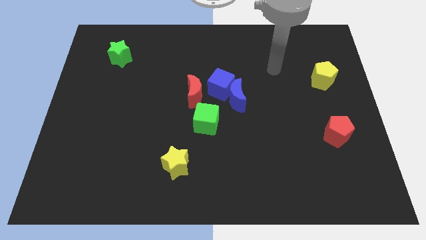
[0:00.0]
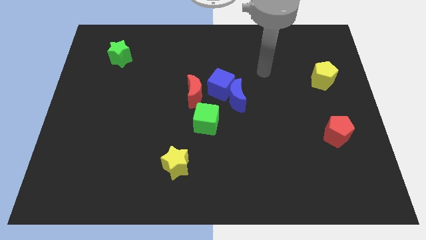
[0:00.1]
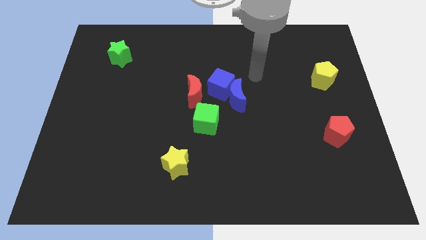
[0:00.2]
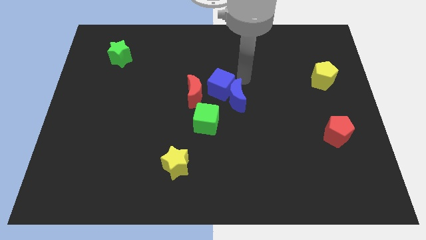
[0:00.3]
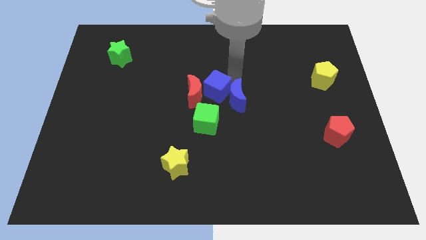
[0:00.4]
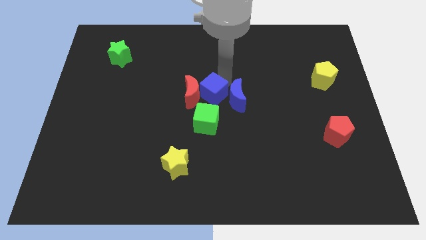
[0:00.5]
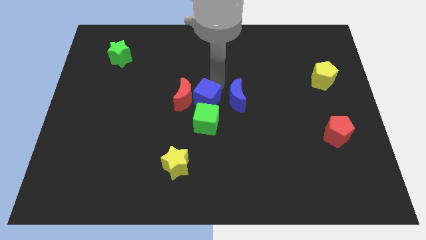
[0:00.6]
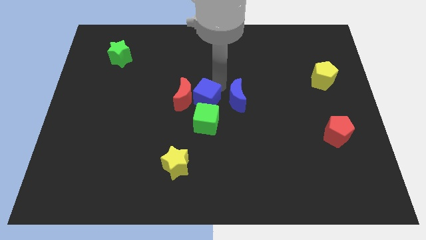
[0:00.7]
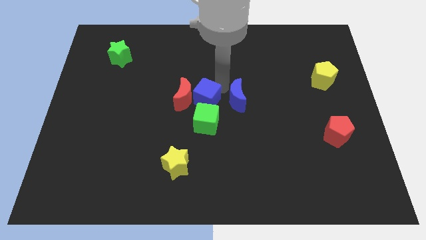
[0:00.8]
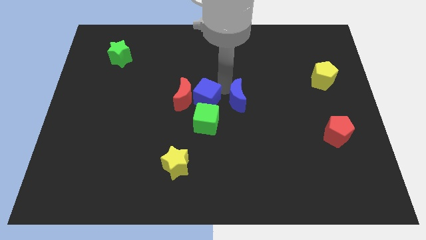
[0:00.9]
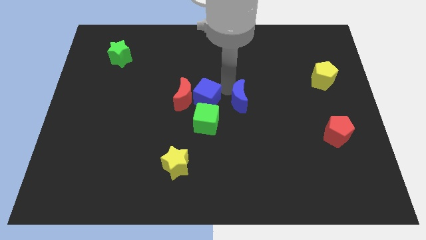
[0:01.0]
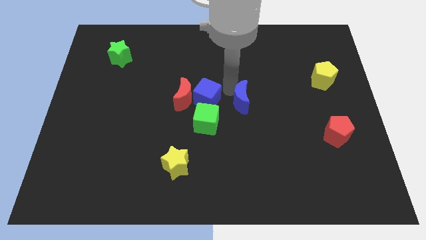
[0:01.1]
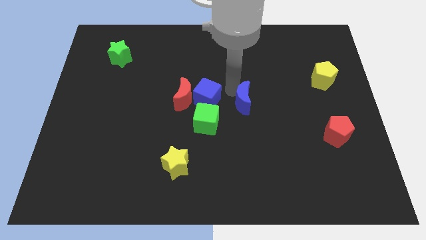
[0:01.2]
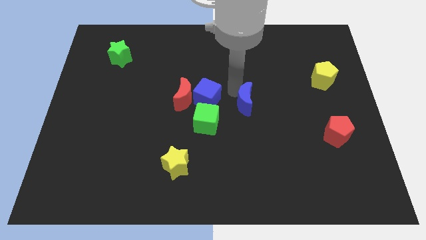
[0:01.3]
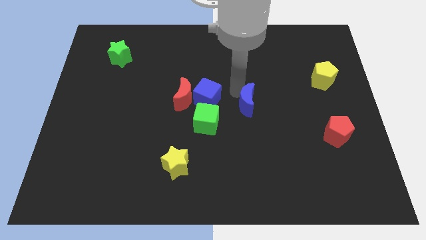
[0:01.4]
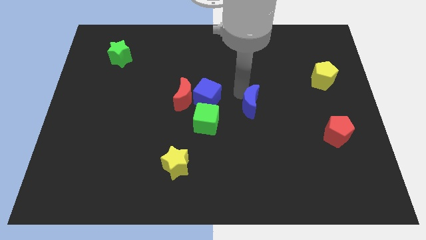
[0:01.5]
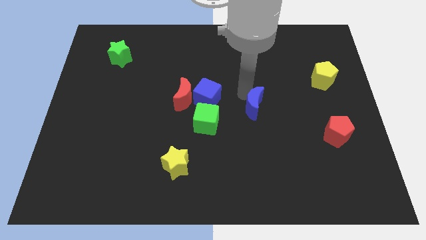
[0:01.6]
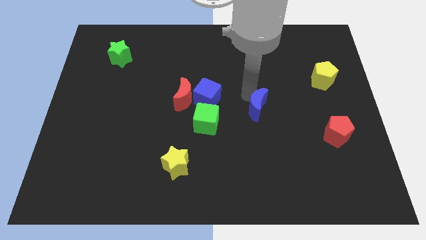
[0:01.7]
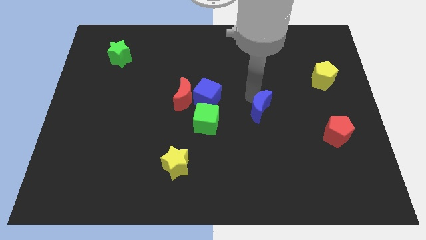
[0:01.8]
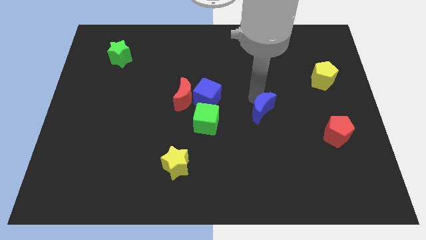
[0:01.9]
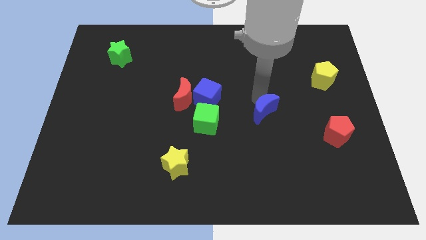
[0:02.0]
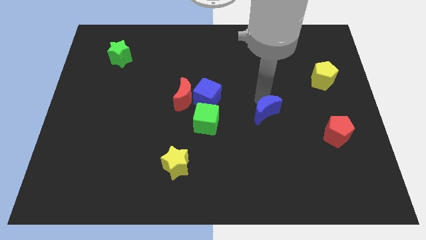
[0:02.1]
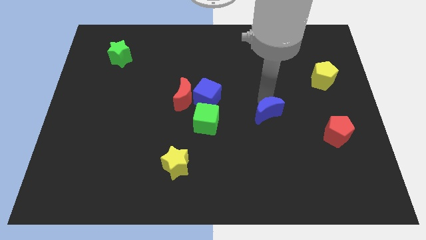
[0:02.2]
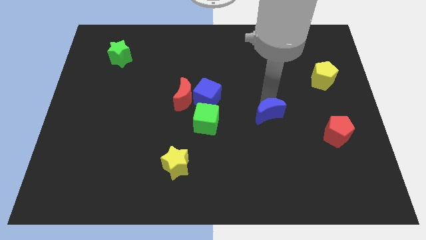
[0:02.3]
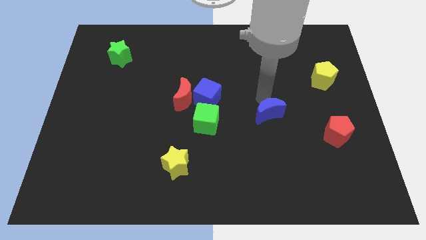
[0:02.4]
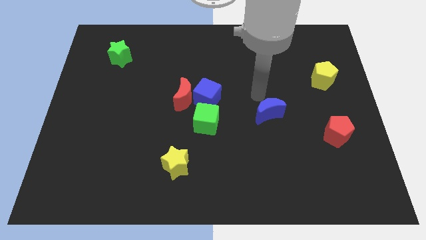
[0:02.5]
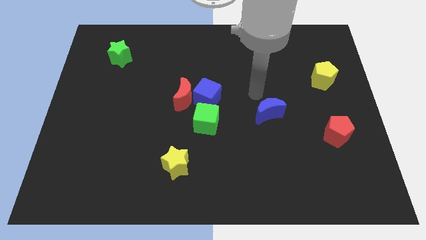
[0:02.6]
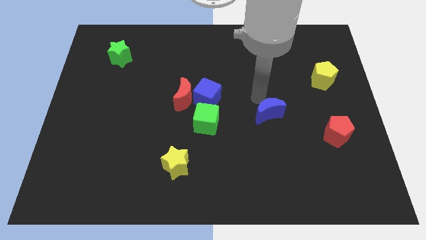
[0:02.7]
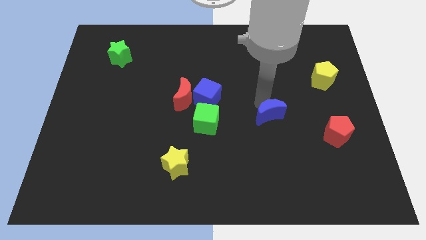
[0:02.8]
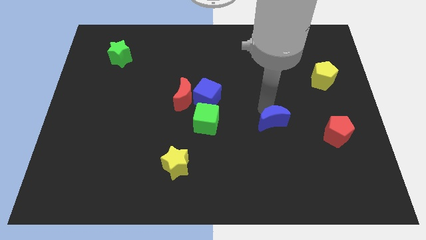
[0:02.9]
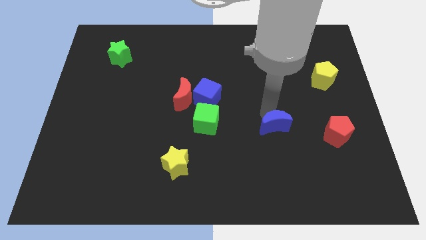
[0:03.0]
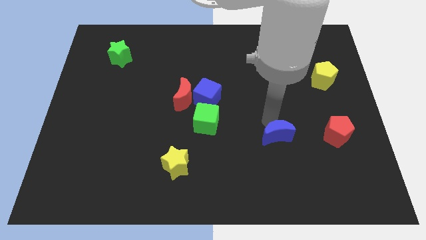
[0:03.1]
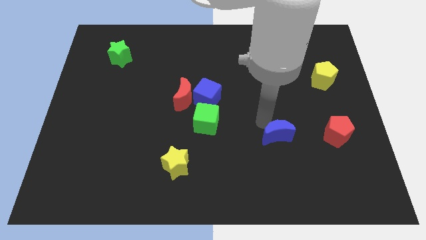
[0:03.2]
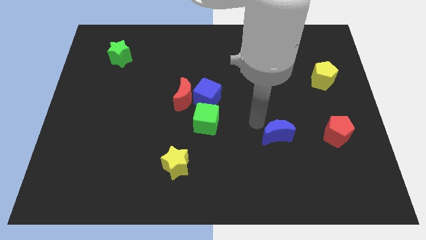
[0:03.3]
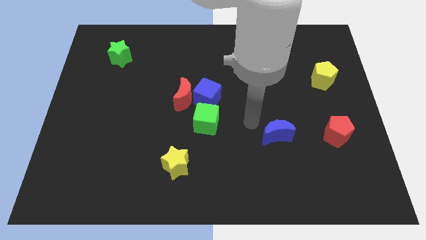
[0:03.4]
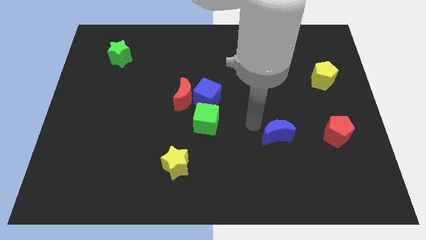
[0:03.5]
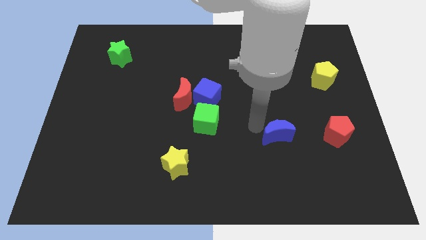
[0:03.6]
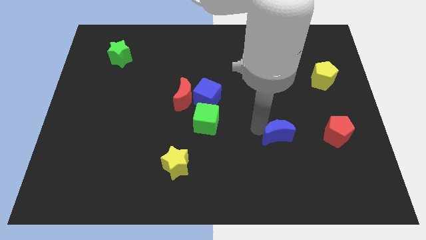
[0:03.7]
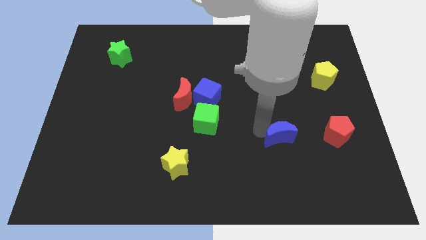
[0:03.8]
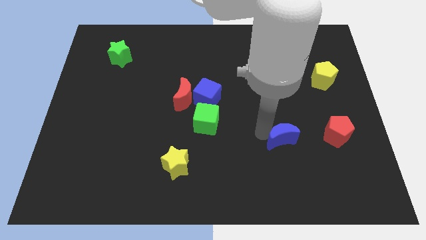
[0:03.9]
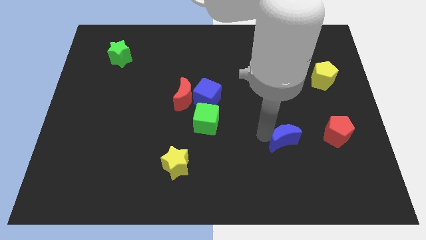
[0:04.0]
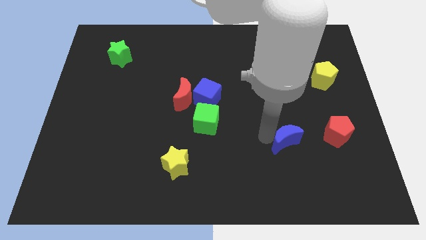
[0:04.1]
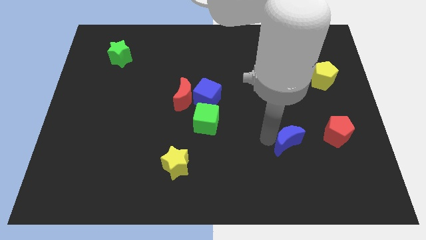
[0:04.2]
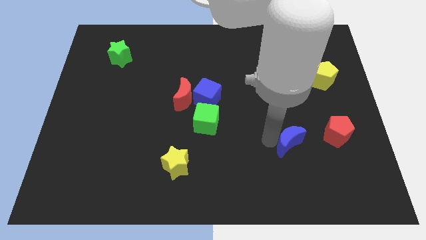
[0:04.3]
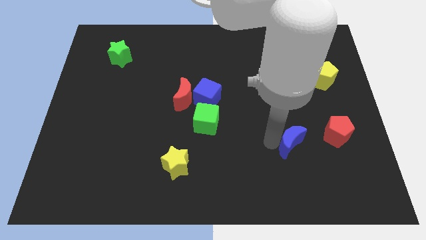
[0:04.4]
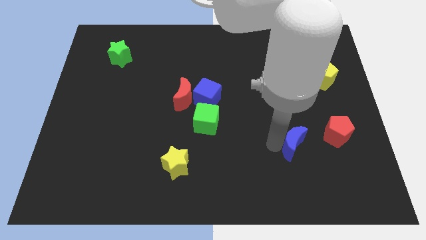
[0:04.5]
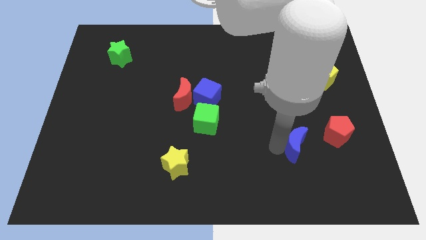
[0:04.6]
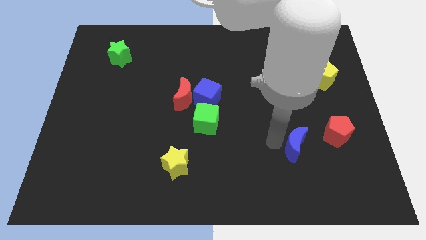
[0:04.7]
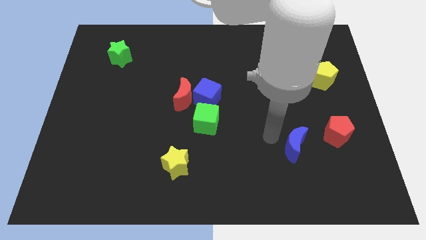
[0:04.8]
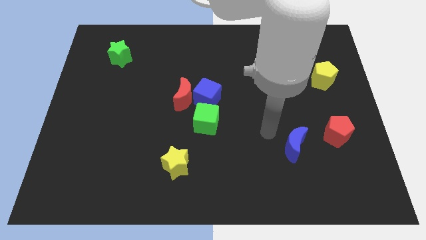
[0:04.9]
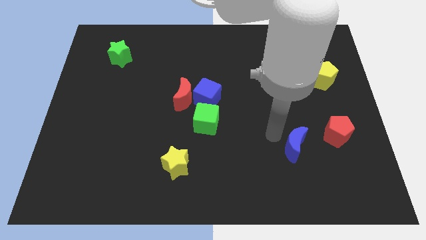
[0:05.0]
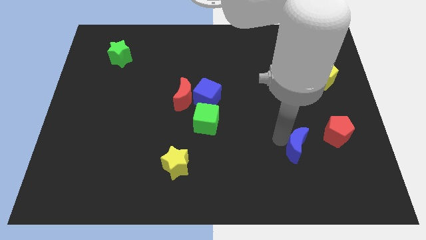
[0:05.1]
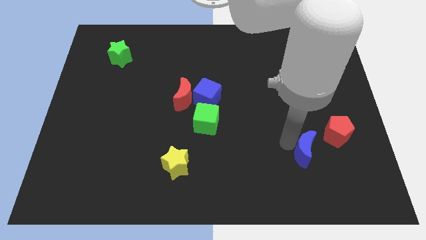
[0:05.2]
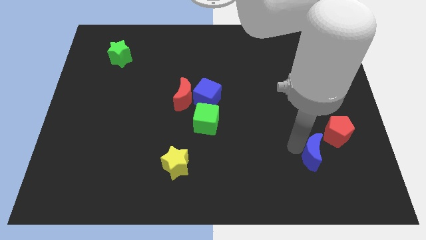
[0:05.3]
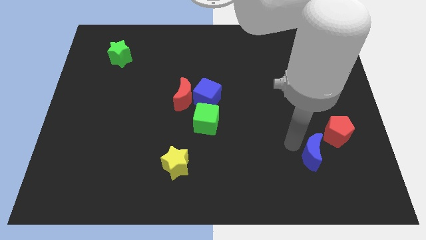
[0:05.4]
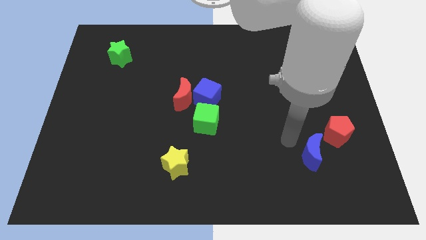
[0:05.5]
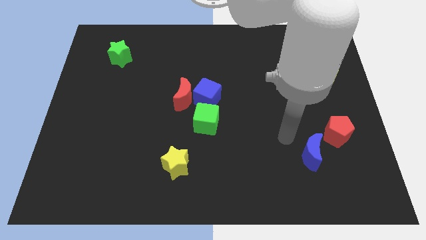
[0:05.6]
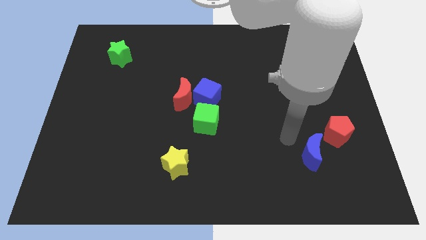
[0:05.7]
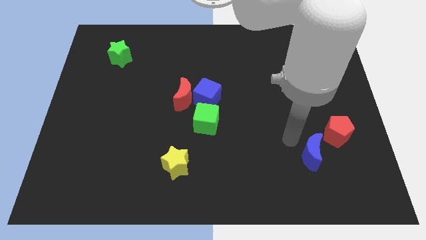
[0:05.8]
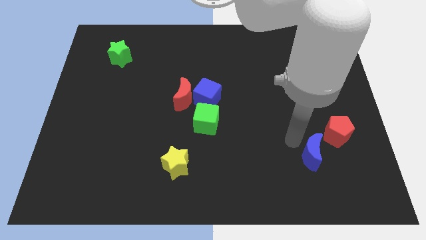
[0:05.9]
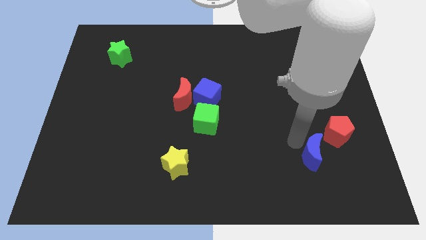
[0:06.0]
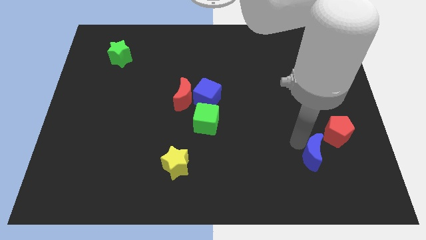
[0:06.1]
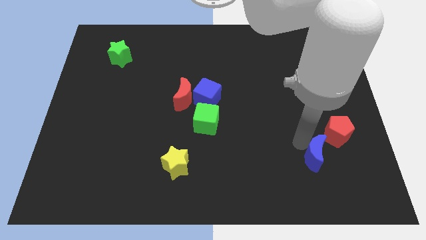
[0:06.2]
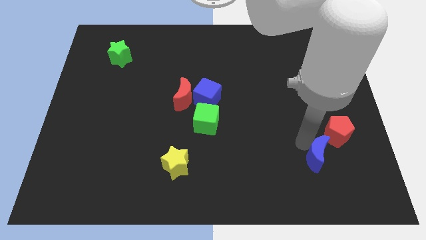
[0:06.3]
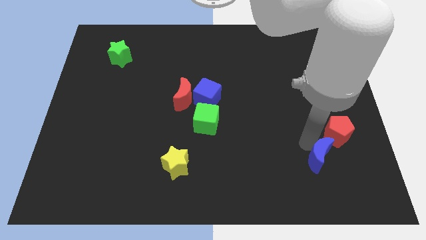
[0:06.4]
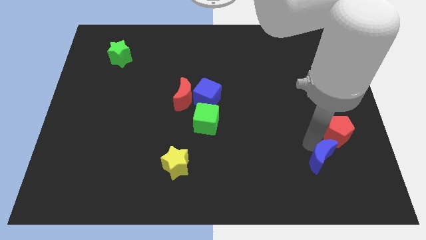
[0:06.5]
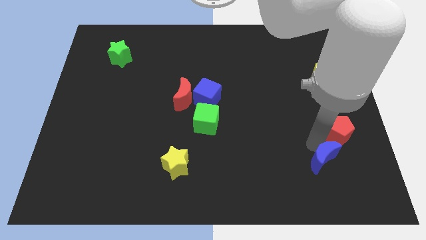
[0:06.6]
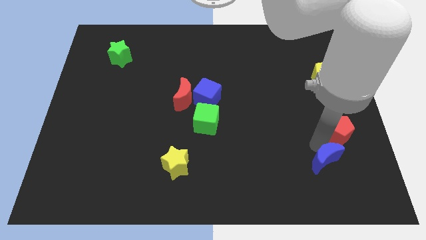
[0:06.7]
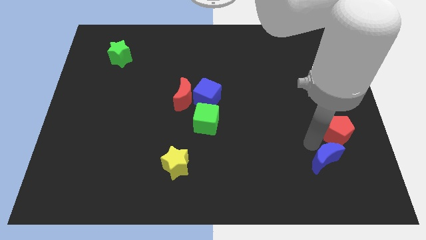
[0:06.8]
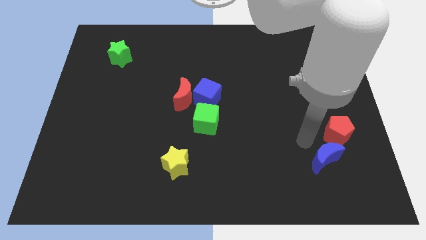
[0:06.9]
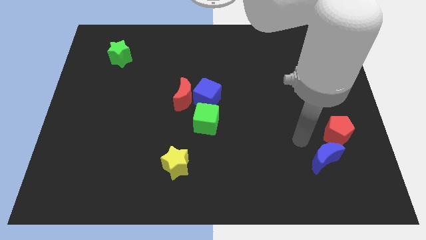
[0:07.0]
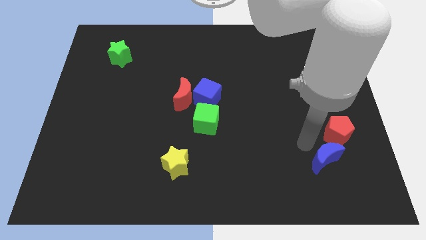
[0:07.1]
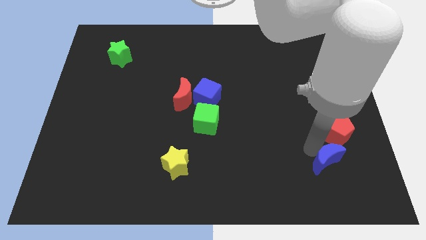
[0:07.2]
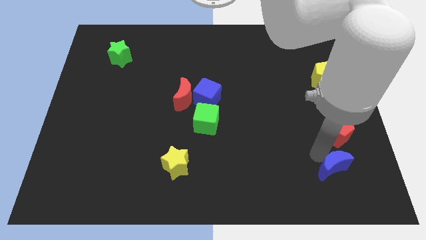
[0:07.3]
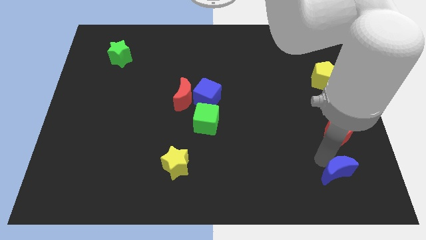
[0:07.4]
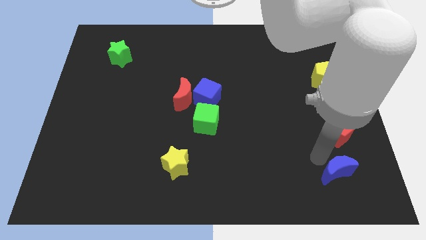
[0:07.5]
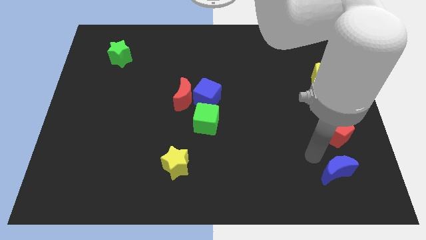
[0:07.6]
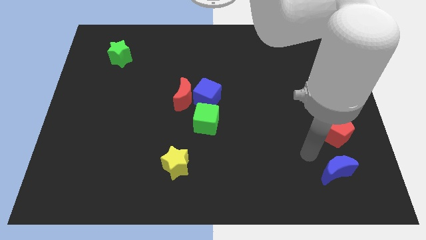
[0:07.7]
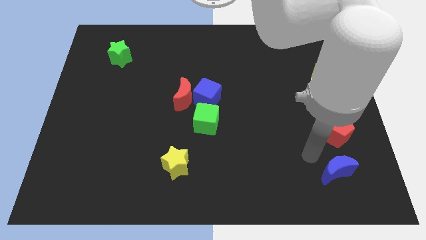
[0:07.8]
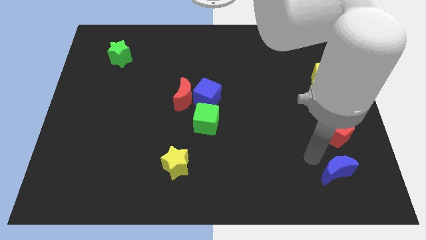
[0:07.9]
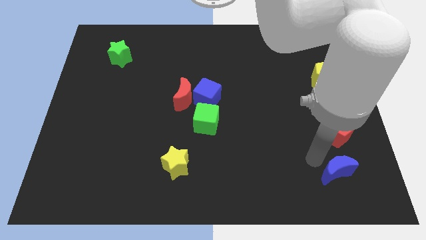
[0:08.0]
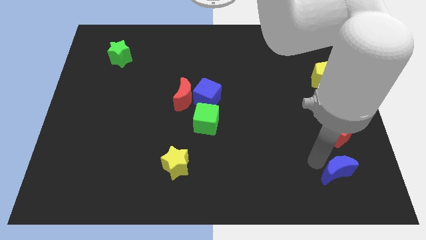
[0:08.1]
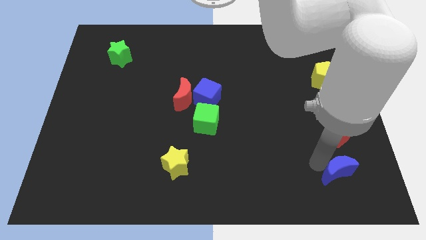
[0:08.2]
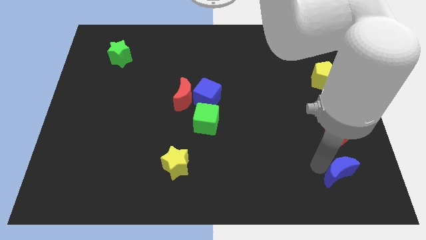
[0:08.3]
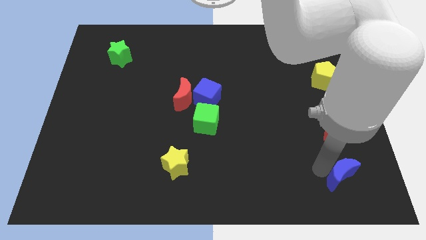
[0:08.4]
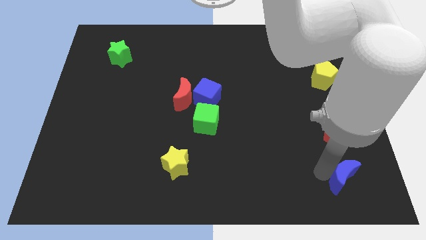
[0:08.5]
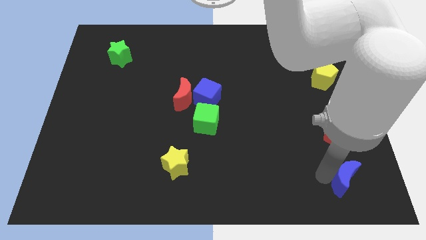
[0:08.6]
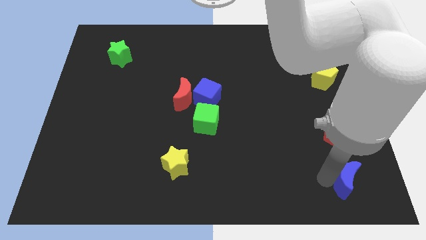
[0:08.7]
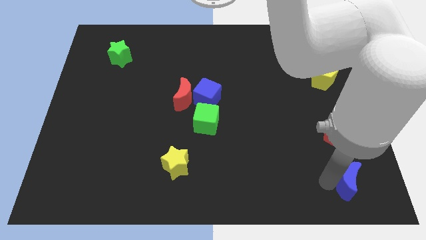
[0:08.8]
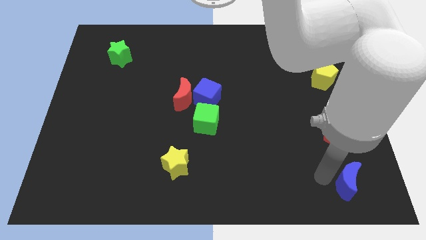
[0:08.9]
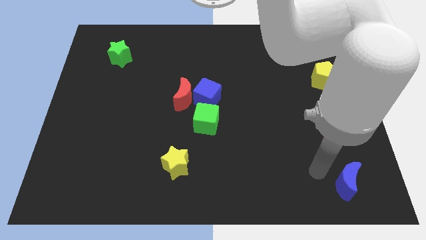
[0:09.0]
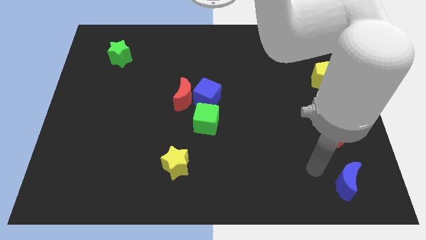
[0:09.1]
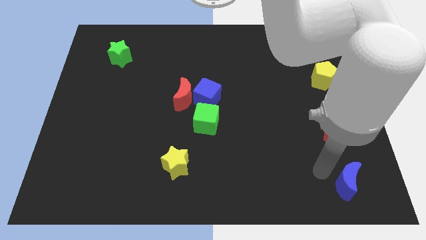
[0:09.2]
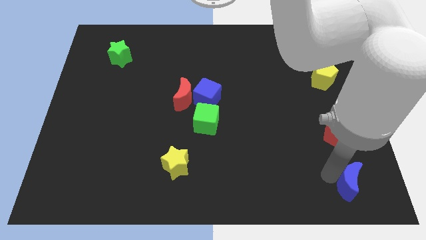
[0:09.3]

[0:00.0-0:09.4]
push the blue moon to the lower right corner
